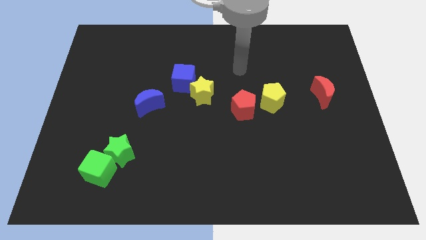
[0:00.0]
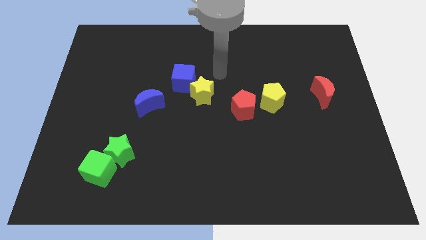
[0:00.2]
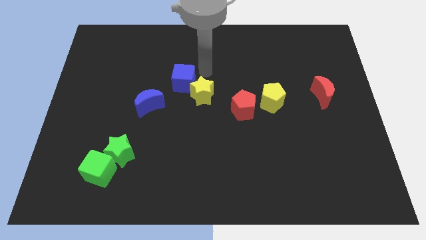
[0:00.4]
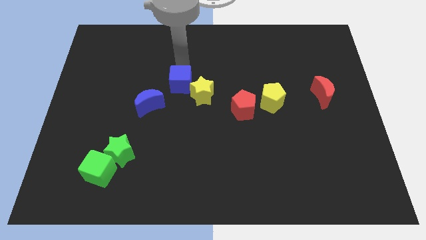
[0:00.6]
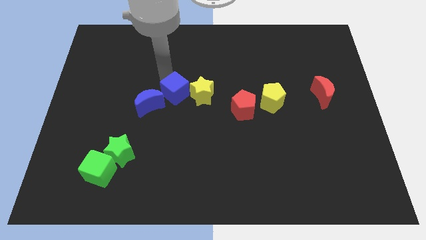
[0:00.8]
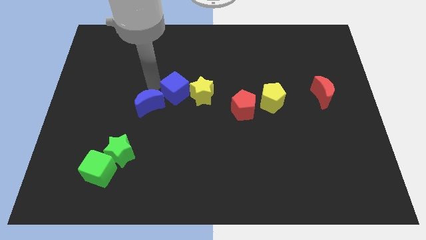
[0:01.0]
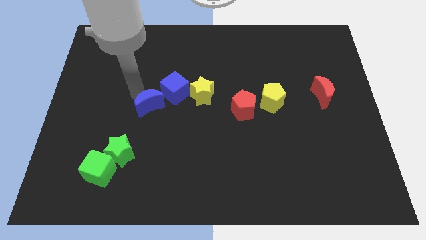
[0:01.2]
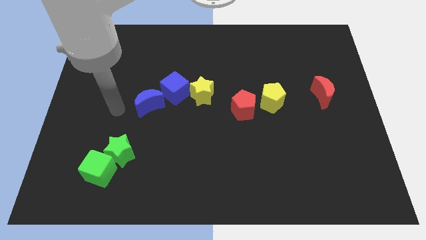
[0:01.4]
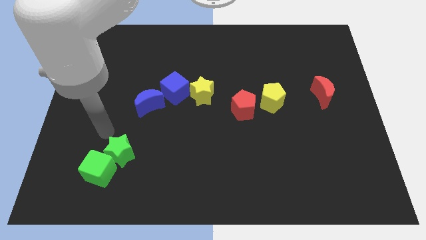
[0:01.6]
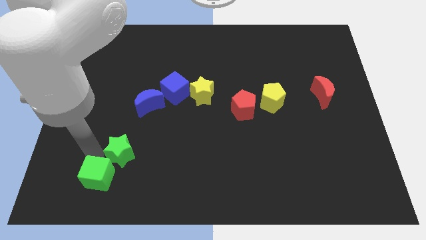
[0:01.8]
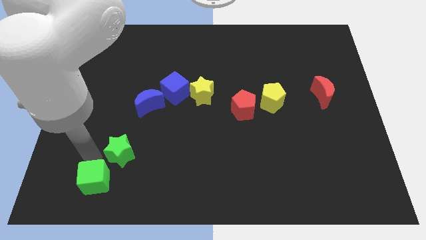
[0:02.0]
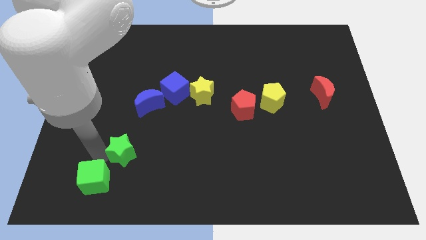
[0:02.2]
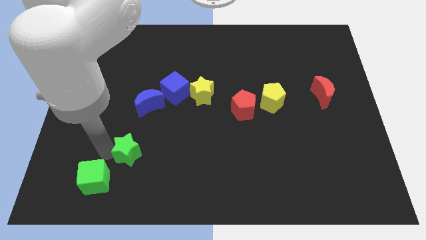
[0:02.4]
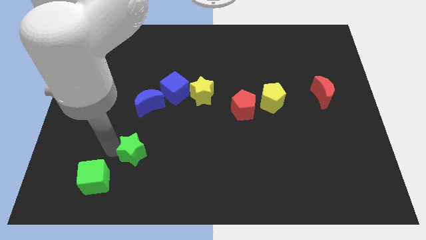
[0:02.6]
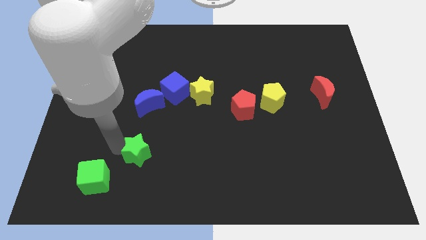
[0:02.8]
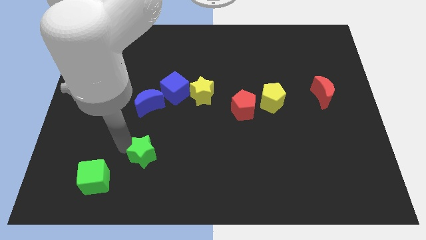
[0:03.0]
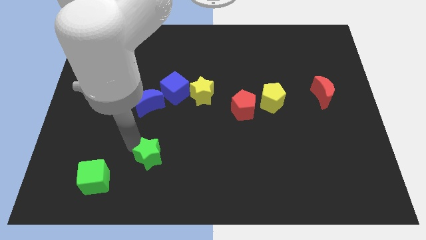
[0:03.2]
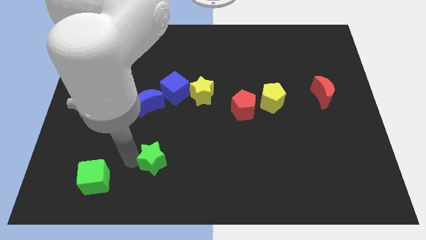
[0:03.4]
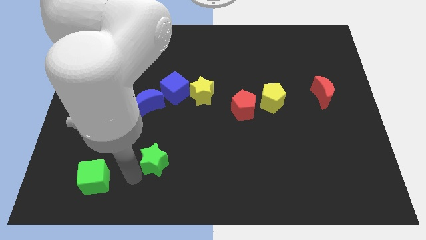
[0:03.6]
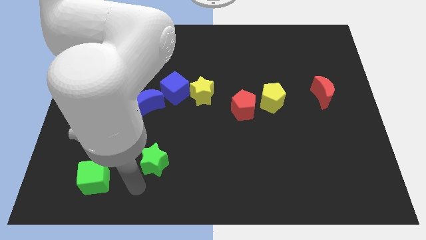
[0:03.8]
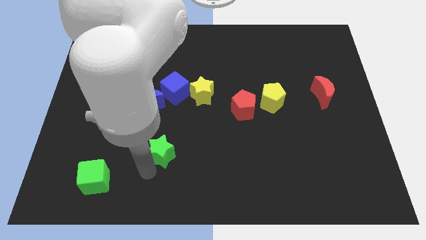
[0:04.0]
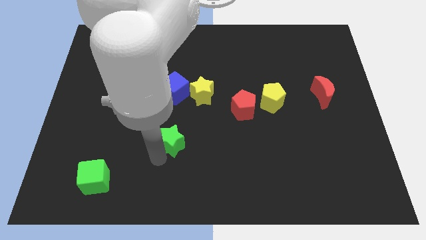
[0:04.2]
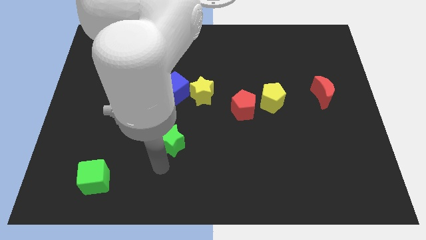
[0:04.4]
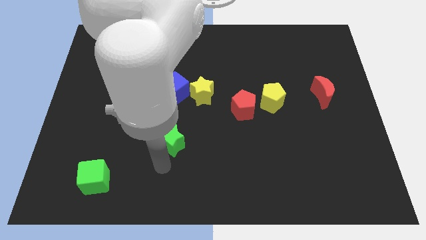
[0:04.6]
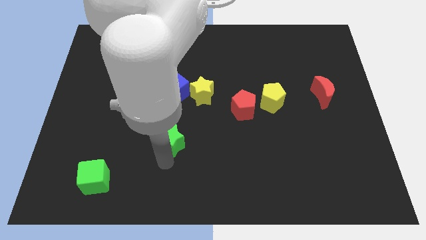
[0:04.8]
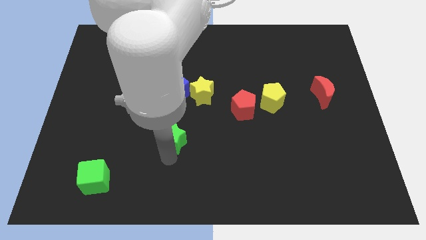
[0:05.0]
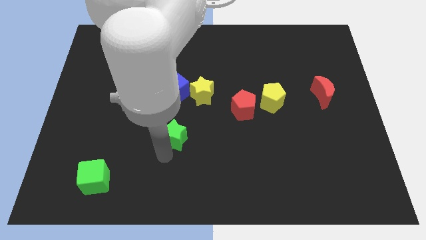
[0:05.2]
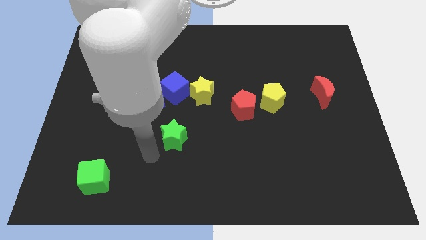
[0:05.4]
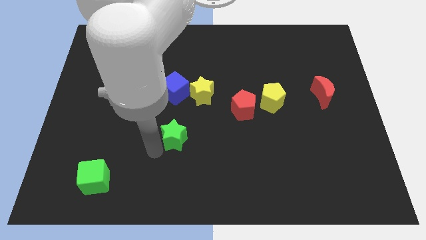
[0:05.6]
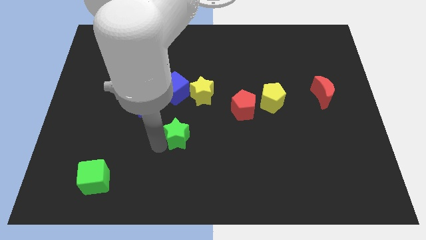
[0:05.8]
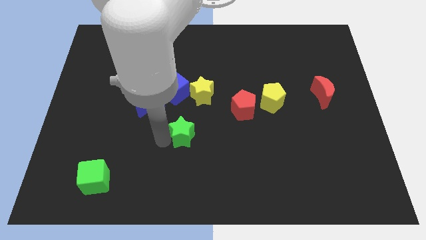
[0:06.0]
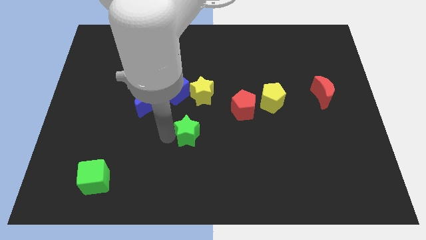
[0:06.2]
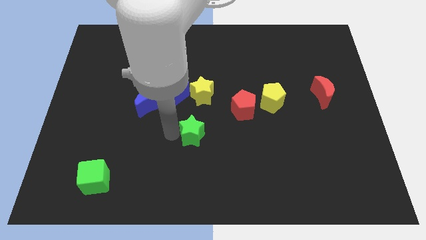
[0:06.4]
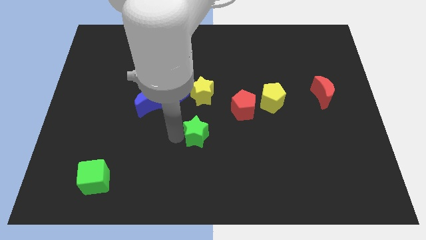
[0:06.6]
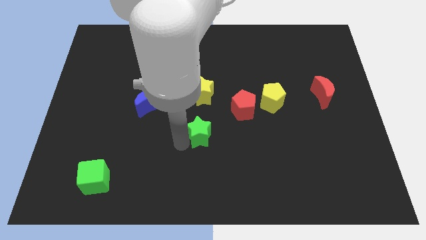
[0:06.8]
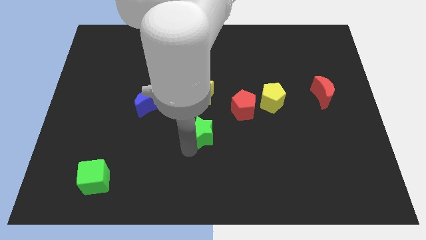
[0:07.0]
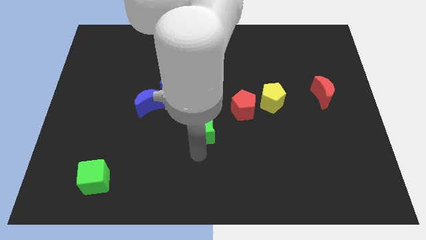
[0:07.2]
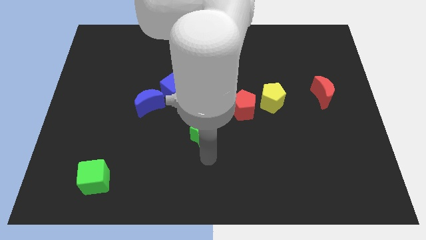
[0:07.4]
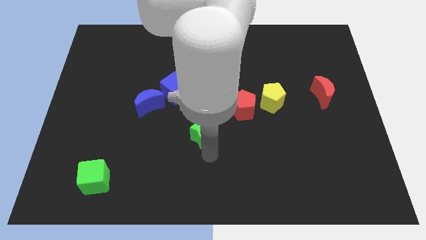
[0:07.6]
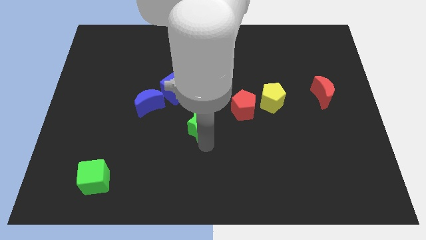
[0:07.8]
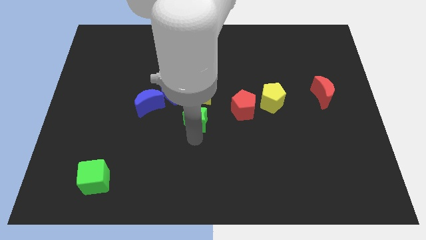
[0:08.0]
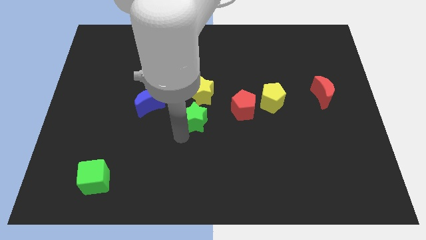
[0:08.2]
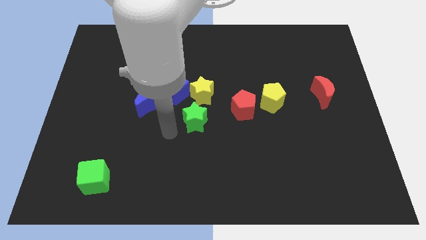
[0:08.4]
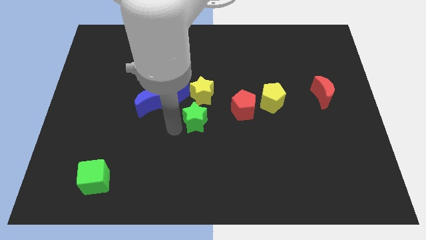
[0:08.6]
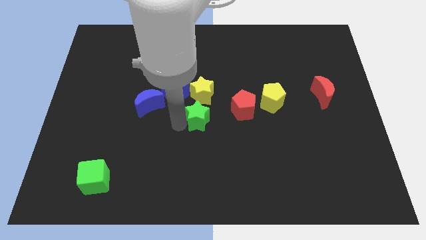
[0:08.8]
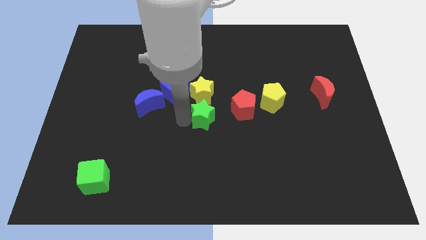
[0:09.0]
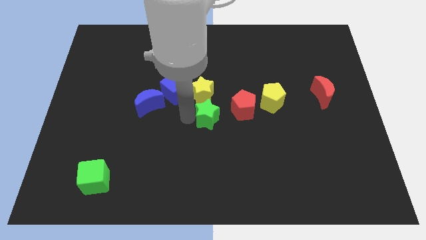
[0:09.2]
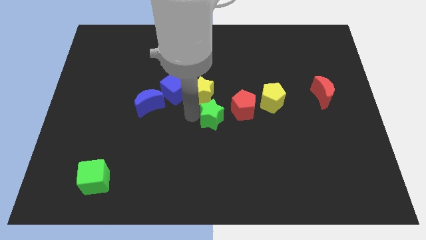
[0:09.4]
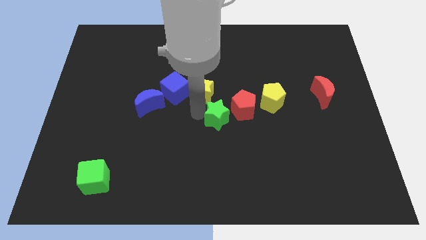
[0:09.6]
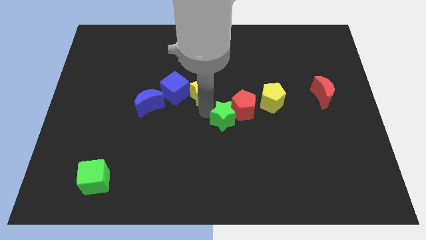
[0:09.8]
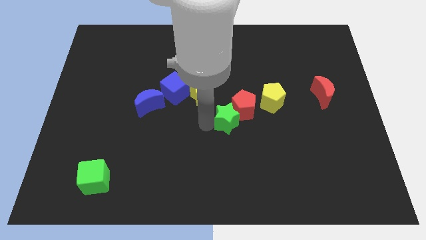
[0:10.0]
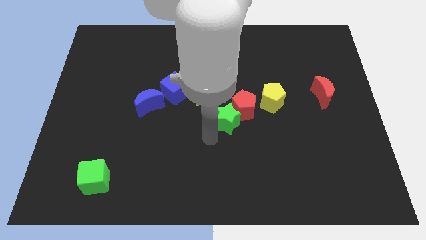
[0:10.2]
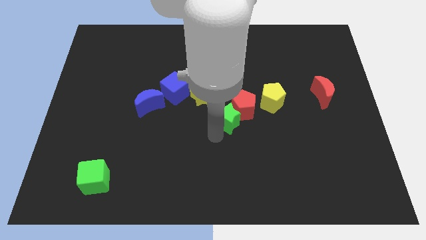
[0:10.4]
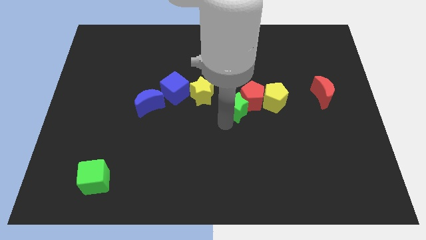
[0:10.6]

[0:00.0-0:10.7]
put the green star to the right side of the yellow star

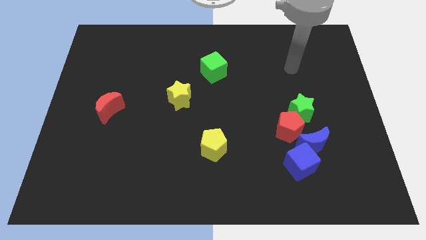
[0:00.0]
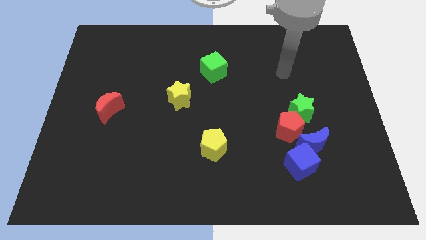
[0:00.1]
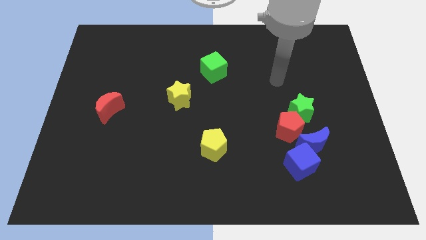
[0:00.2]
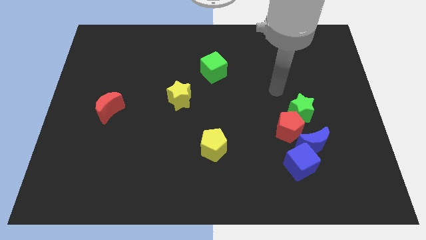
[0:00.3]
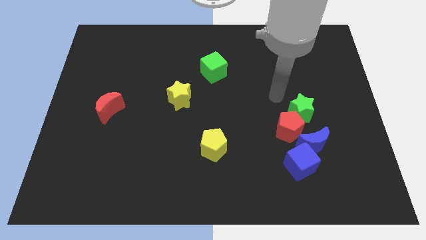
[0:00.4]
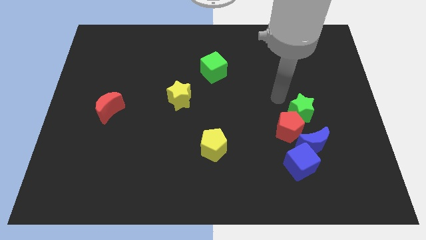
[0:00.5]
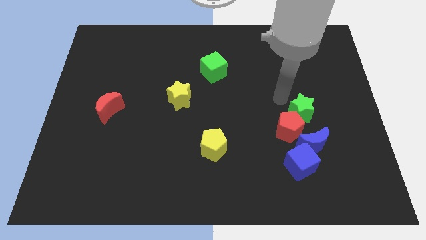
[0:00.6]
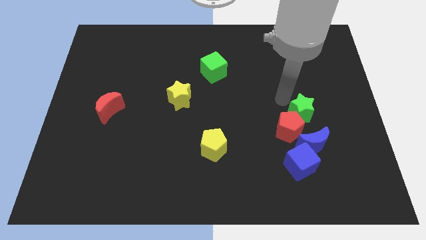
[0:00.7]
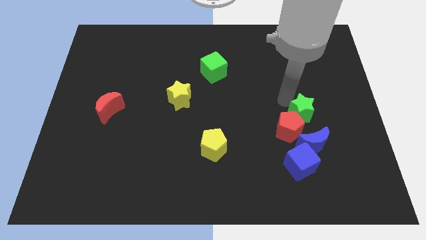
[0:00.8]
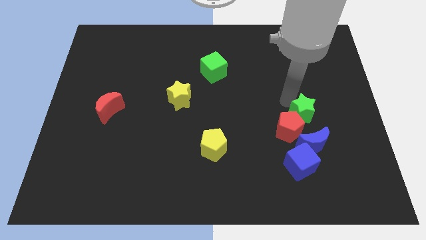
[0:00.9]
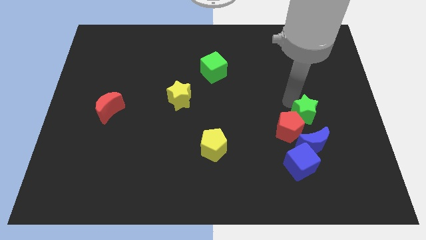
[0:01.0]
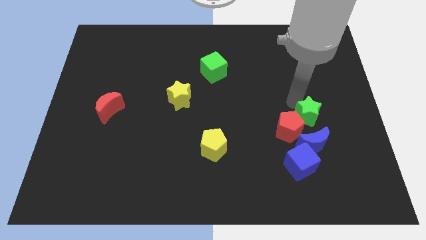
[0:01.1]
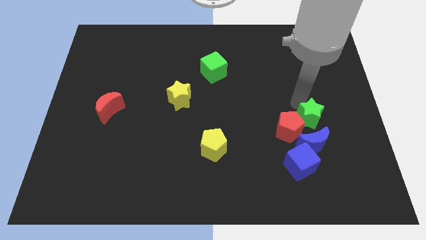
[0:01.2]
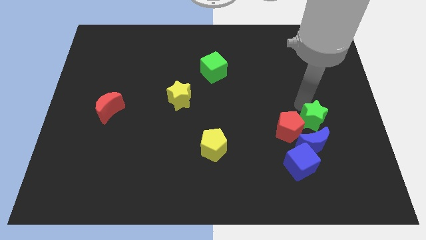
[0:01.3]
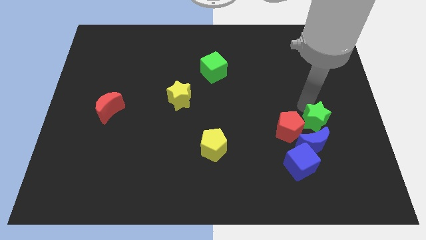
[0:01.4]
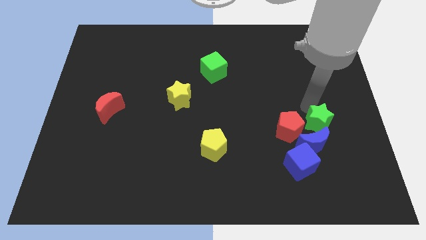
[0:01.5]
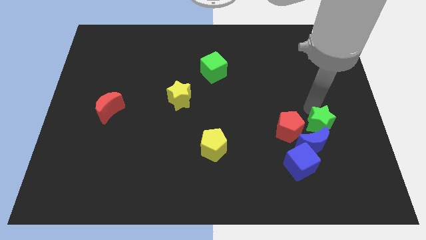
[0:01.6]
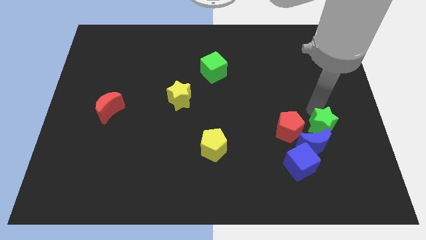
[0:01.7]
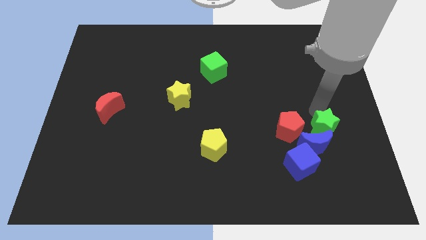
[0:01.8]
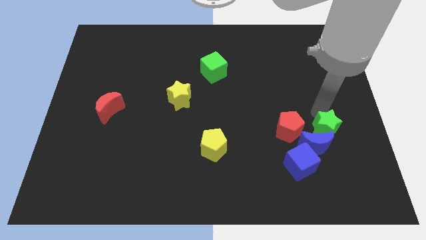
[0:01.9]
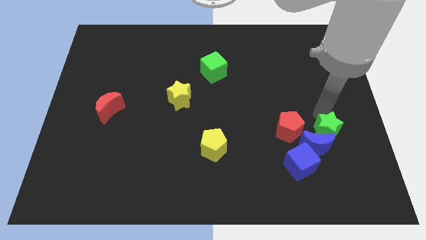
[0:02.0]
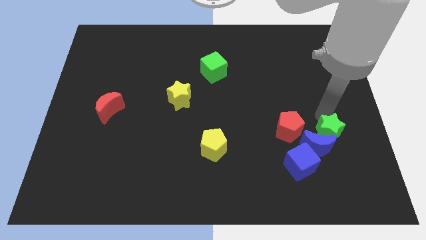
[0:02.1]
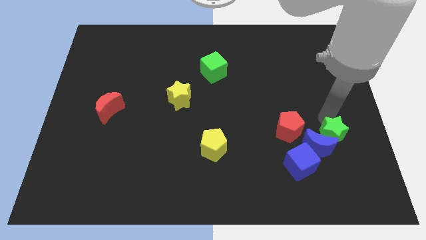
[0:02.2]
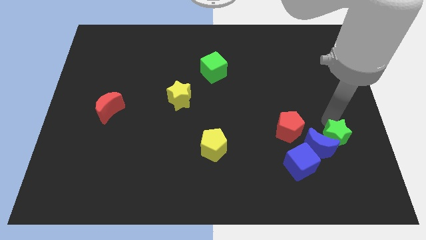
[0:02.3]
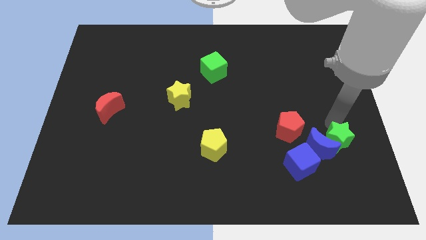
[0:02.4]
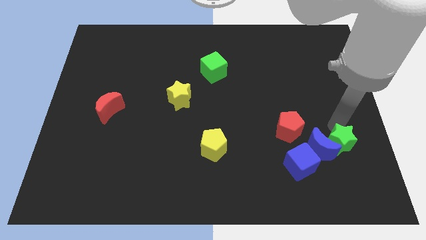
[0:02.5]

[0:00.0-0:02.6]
slide the green star to the bottom right of the blue moon
